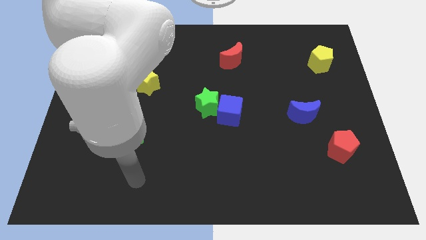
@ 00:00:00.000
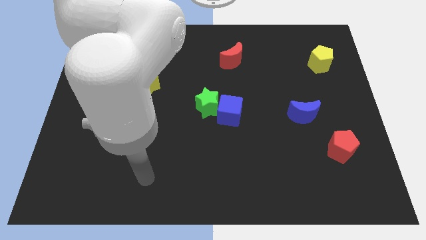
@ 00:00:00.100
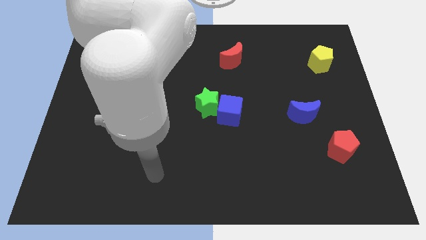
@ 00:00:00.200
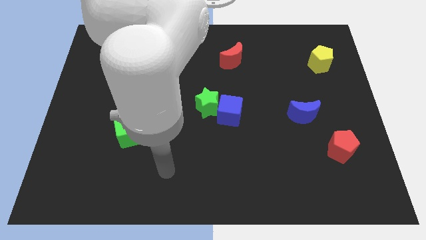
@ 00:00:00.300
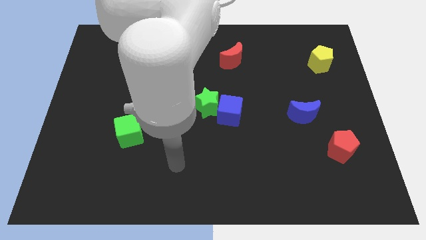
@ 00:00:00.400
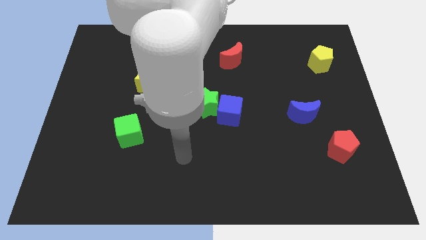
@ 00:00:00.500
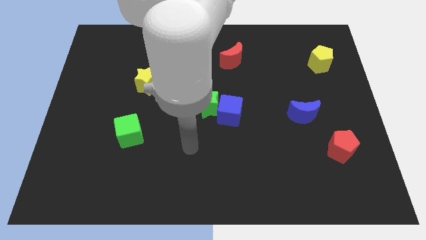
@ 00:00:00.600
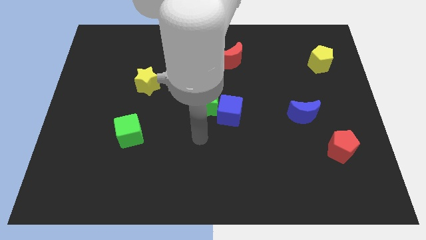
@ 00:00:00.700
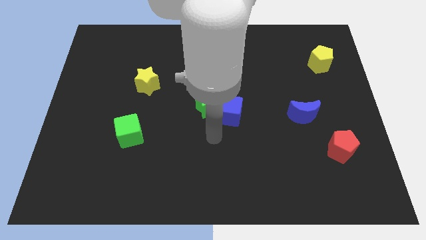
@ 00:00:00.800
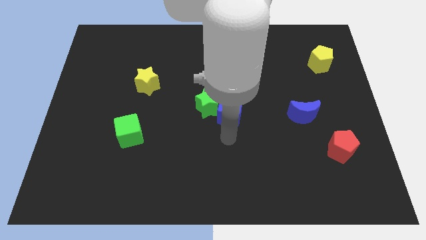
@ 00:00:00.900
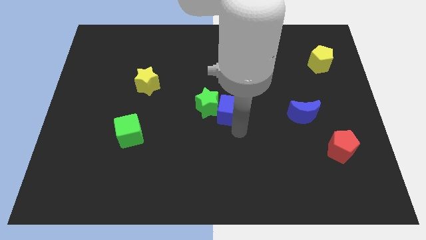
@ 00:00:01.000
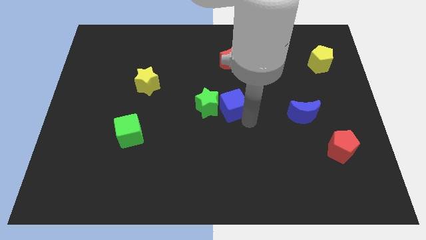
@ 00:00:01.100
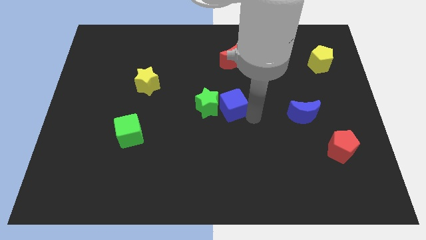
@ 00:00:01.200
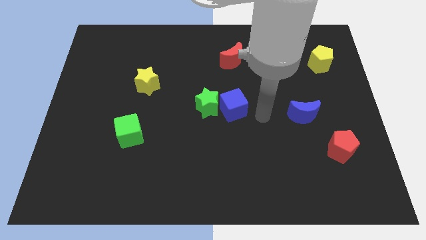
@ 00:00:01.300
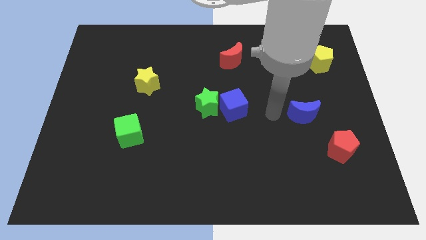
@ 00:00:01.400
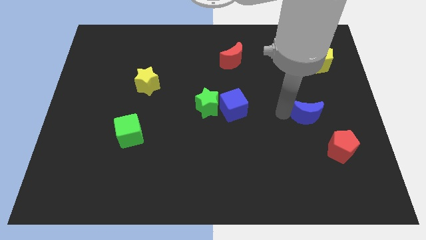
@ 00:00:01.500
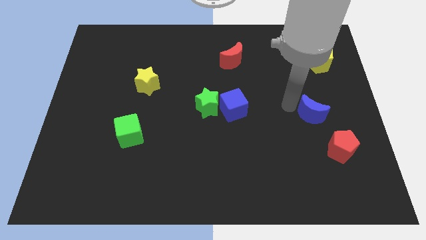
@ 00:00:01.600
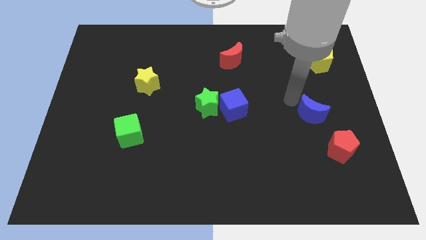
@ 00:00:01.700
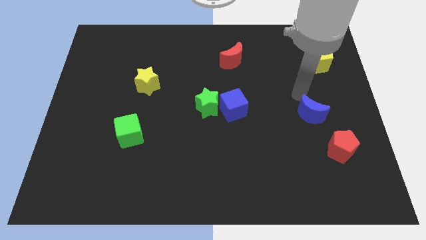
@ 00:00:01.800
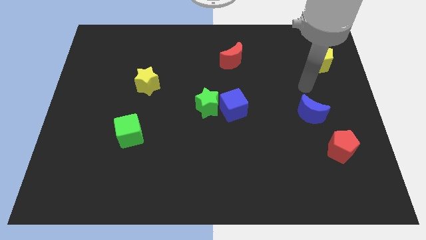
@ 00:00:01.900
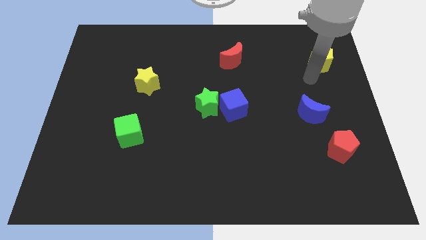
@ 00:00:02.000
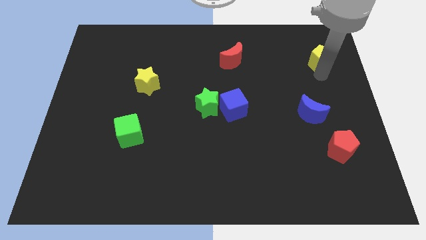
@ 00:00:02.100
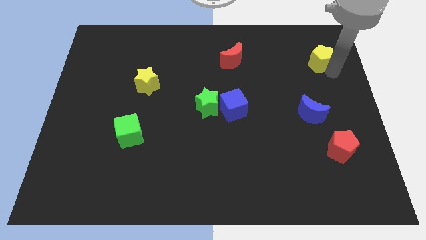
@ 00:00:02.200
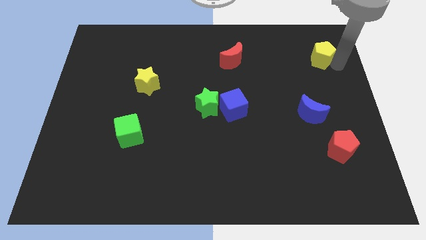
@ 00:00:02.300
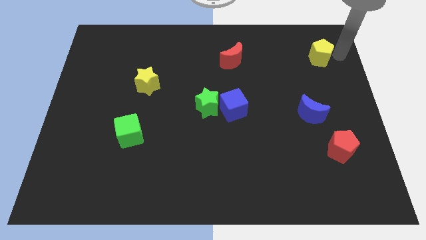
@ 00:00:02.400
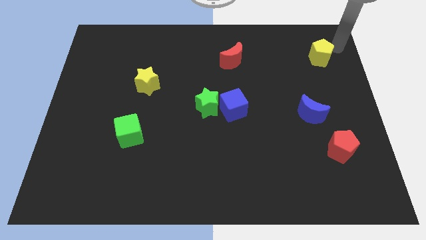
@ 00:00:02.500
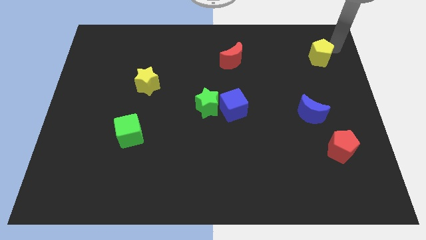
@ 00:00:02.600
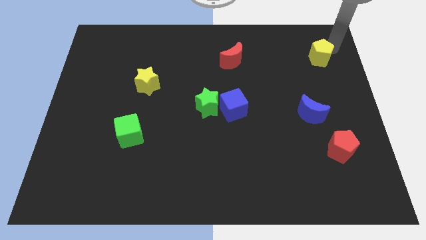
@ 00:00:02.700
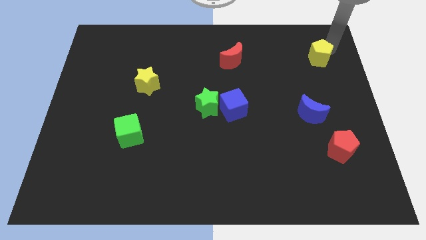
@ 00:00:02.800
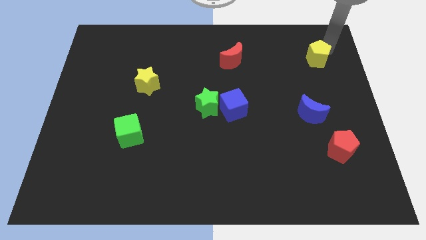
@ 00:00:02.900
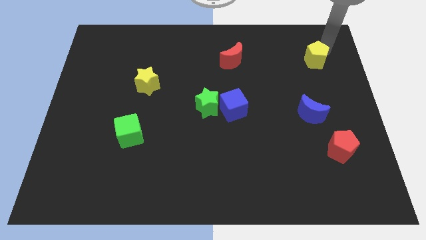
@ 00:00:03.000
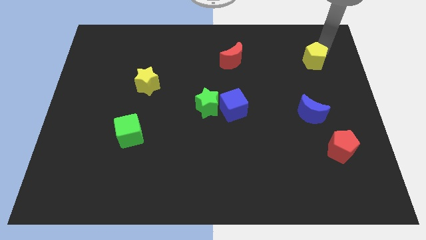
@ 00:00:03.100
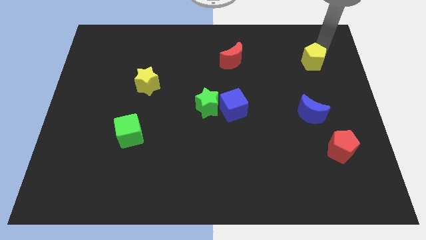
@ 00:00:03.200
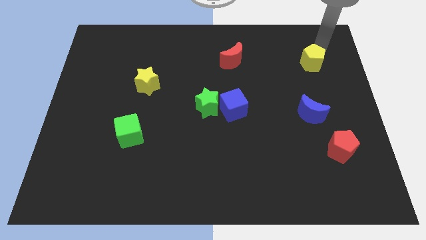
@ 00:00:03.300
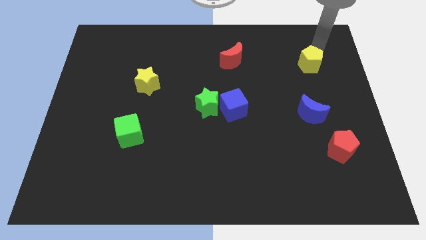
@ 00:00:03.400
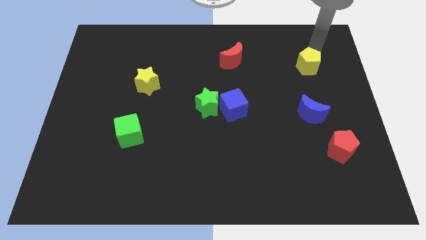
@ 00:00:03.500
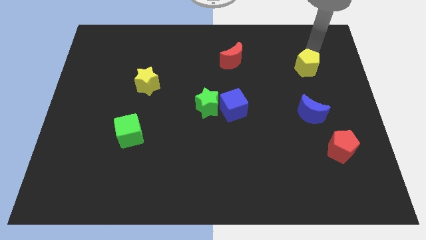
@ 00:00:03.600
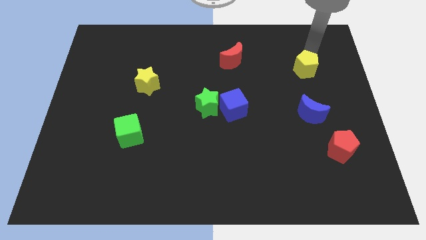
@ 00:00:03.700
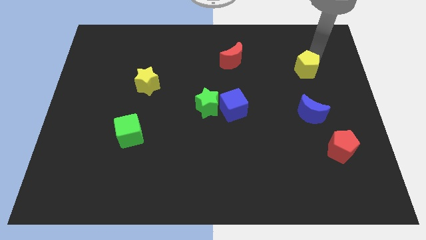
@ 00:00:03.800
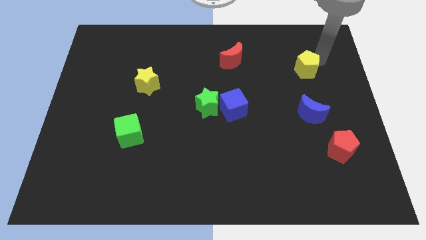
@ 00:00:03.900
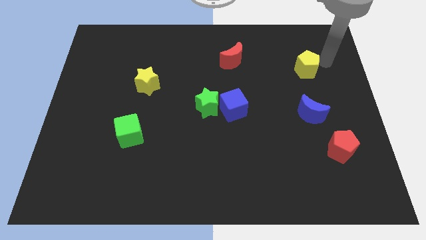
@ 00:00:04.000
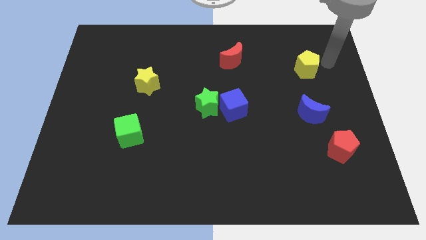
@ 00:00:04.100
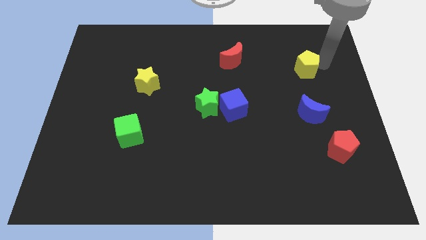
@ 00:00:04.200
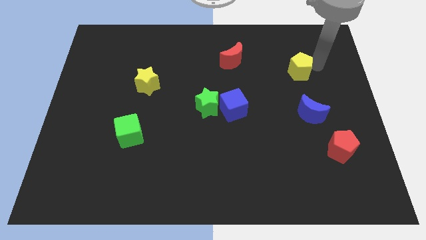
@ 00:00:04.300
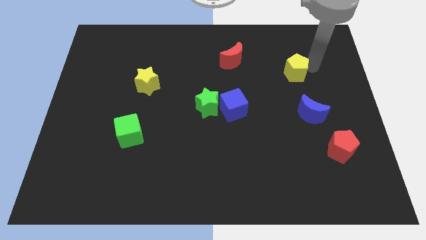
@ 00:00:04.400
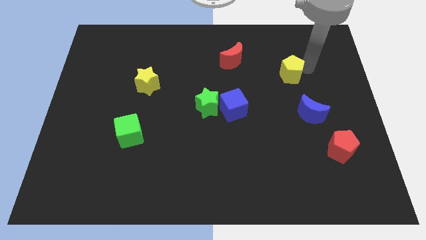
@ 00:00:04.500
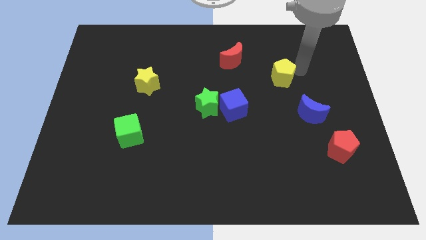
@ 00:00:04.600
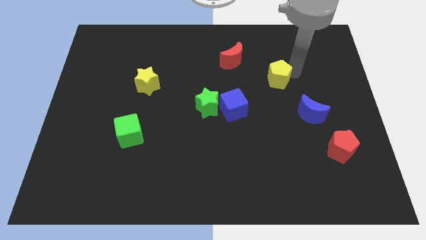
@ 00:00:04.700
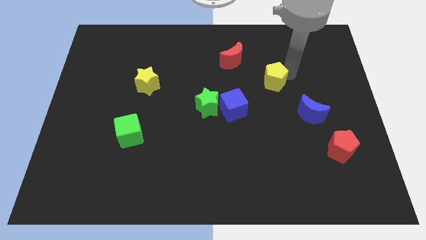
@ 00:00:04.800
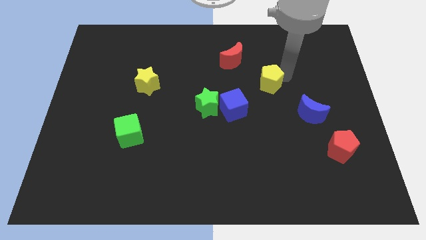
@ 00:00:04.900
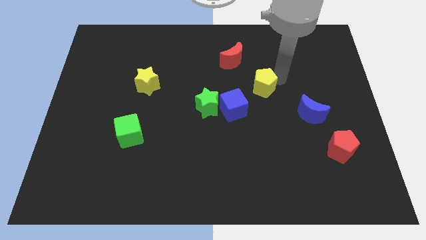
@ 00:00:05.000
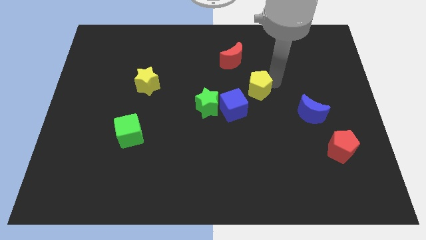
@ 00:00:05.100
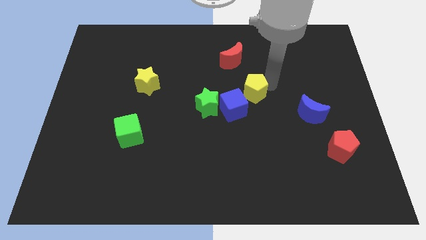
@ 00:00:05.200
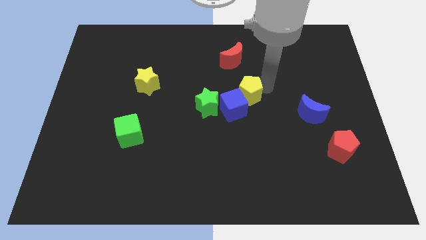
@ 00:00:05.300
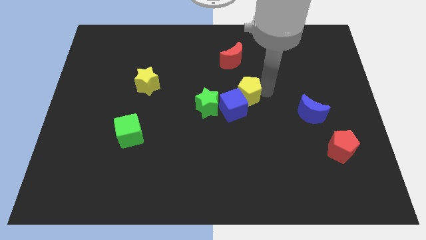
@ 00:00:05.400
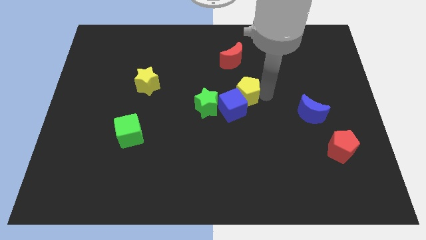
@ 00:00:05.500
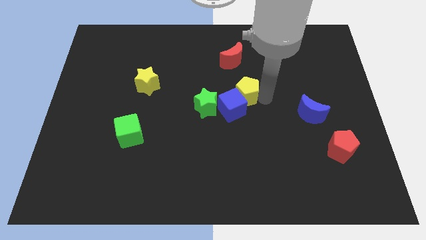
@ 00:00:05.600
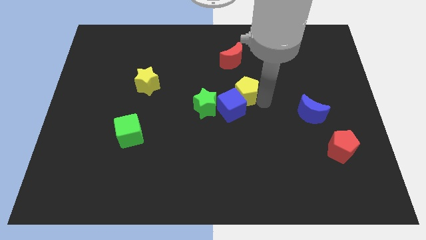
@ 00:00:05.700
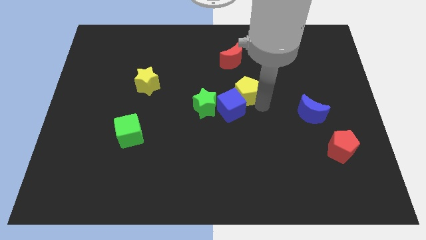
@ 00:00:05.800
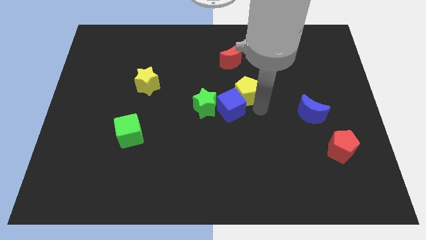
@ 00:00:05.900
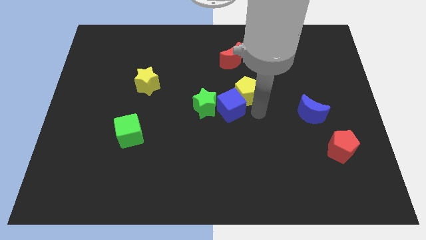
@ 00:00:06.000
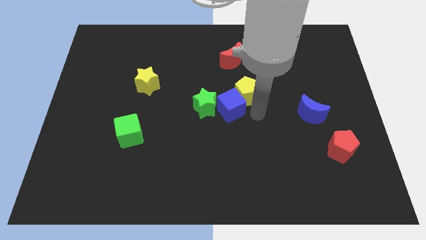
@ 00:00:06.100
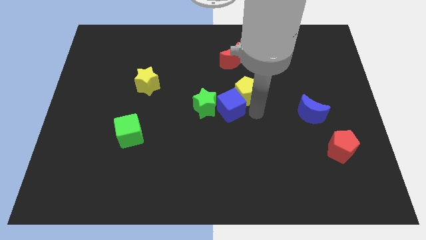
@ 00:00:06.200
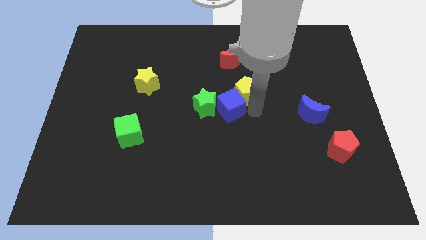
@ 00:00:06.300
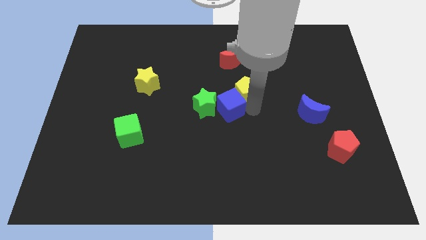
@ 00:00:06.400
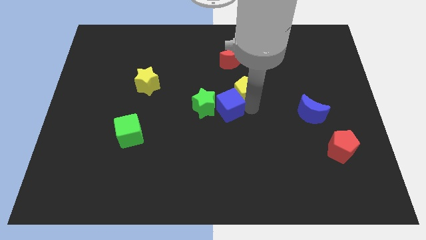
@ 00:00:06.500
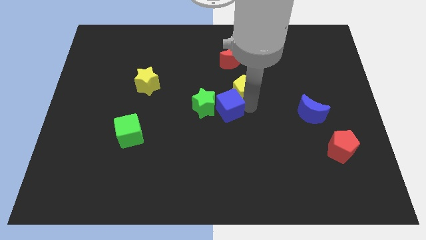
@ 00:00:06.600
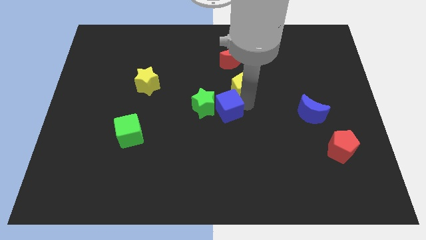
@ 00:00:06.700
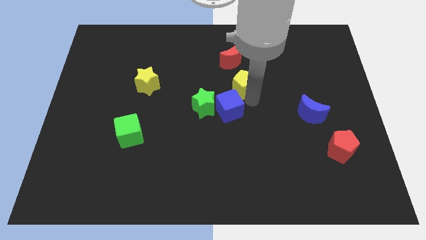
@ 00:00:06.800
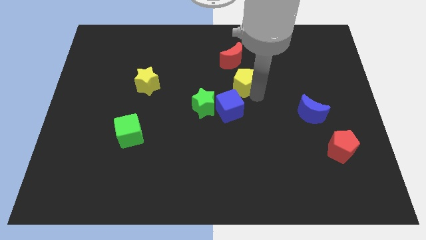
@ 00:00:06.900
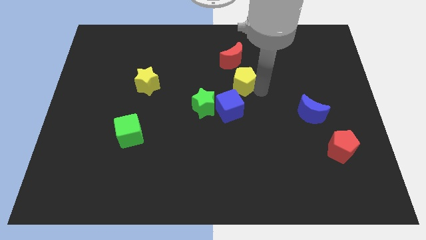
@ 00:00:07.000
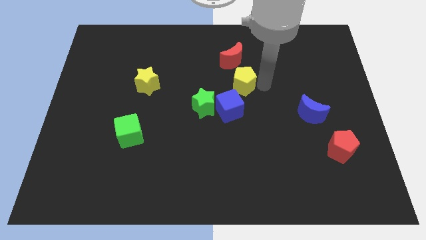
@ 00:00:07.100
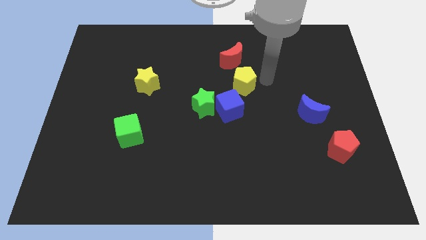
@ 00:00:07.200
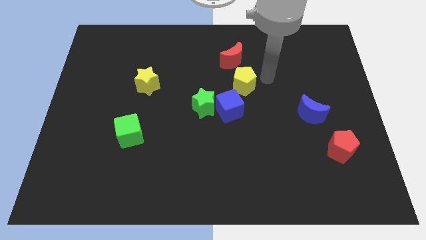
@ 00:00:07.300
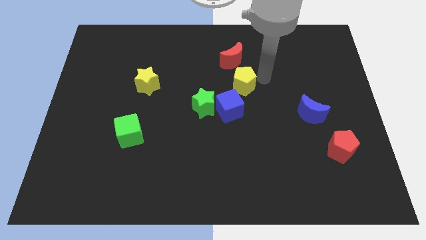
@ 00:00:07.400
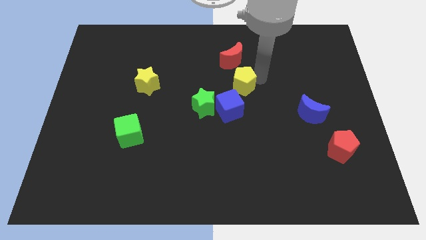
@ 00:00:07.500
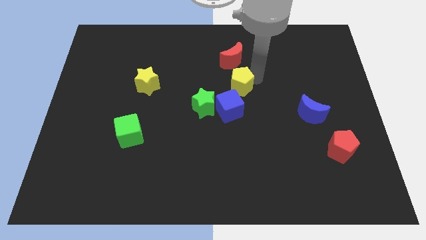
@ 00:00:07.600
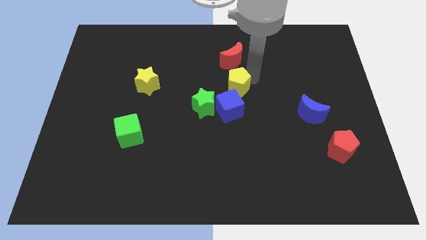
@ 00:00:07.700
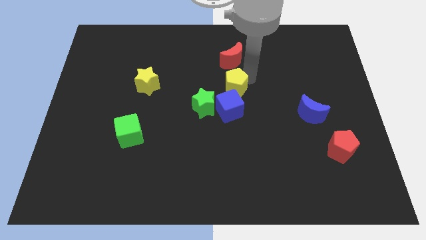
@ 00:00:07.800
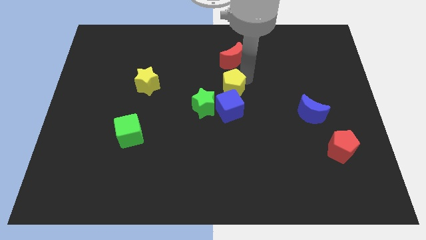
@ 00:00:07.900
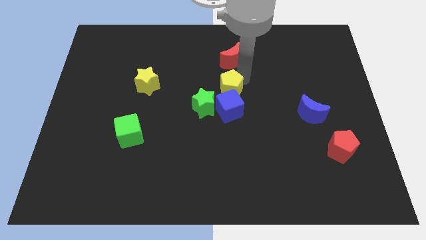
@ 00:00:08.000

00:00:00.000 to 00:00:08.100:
put the yellow pentagon to the top left of the blue cube
